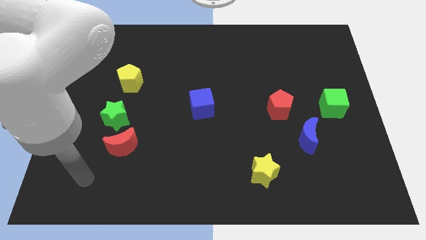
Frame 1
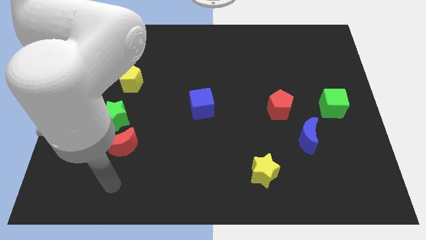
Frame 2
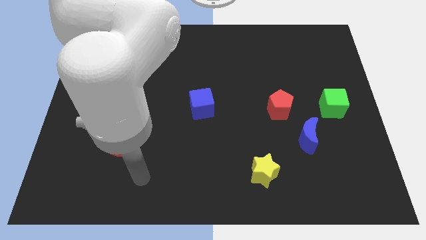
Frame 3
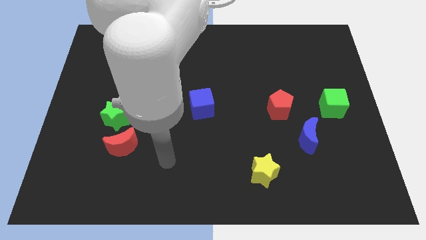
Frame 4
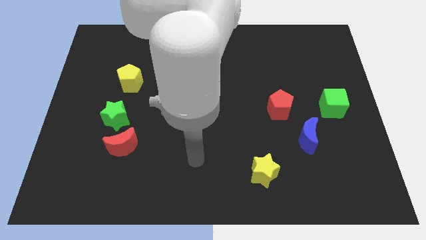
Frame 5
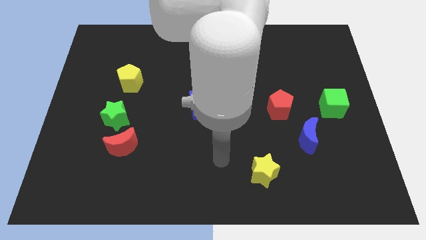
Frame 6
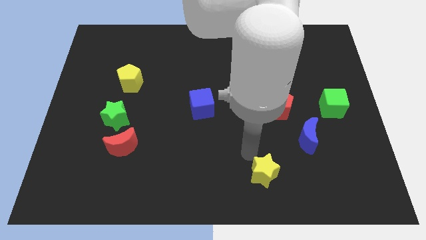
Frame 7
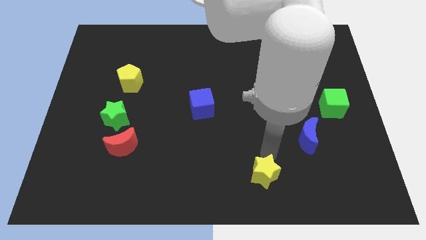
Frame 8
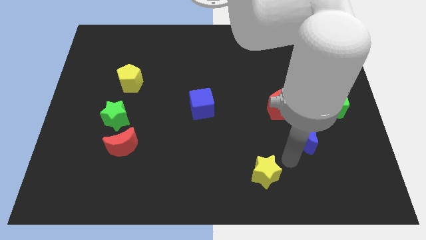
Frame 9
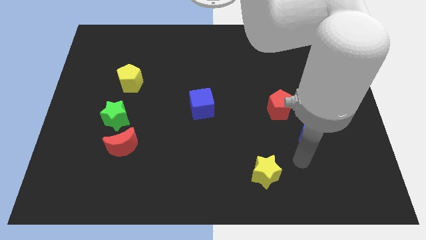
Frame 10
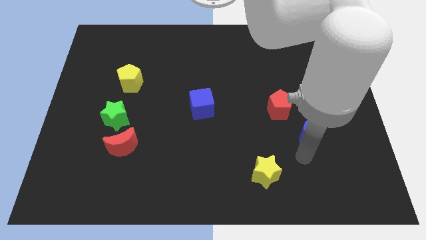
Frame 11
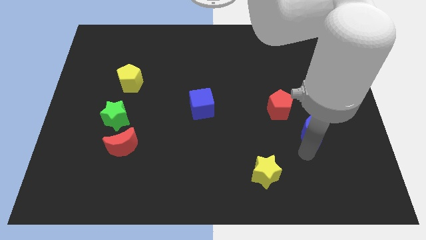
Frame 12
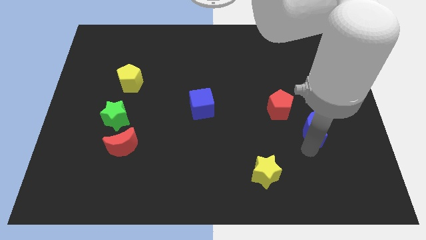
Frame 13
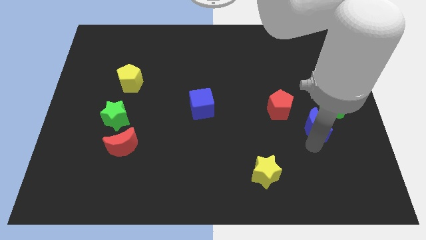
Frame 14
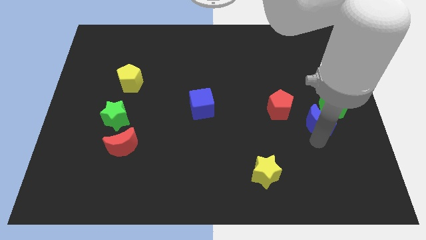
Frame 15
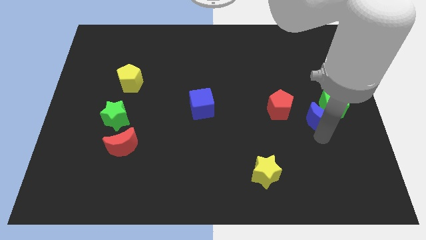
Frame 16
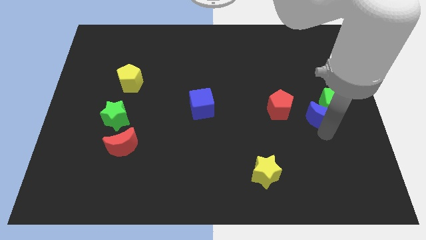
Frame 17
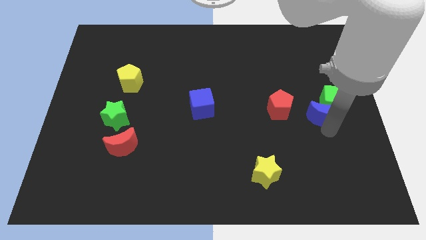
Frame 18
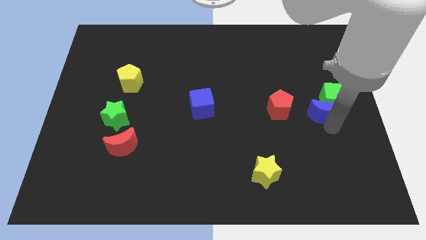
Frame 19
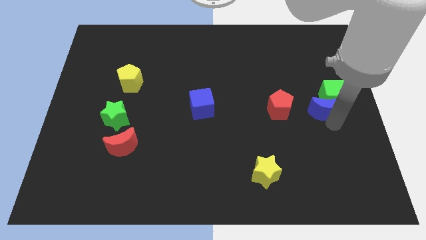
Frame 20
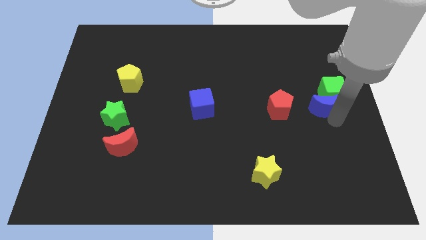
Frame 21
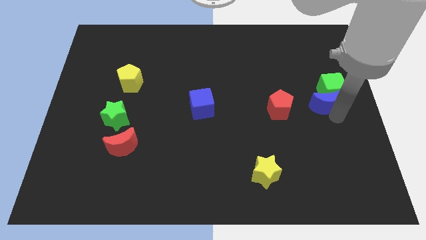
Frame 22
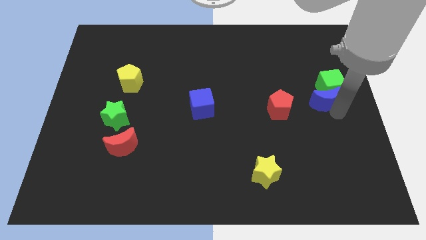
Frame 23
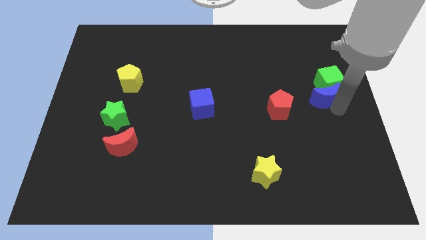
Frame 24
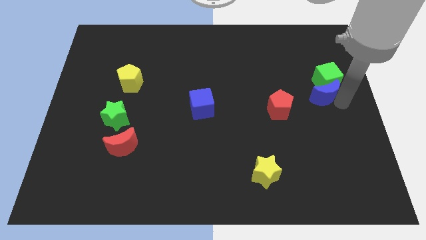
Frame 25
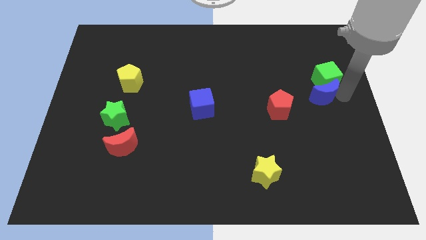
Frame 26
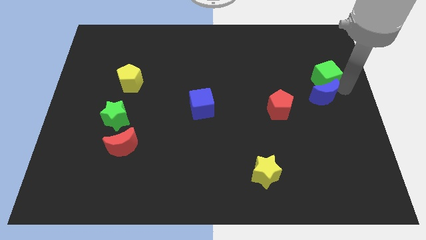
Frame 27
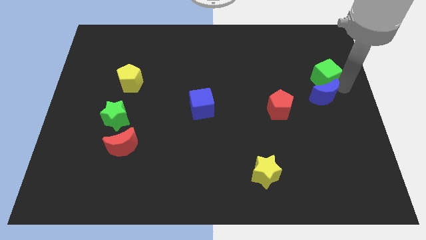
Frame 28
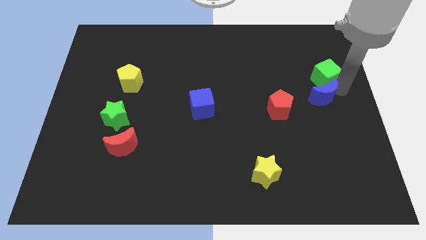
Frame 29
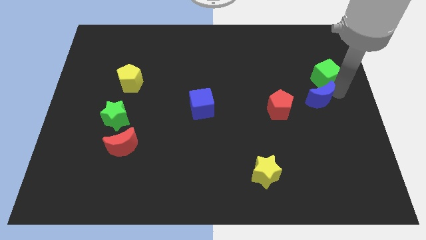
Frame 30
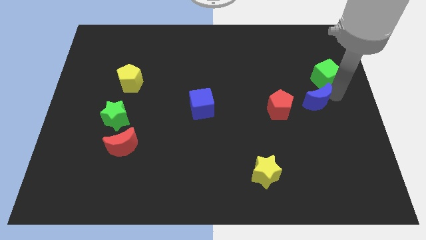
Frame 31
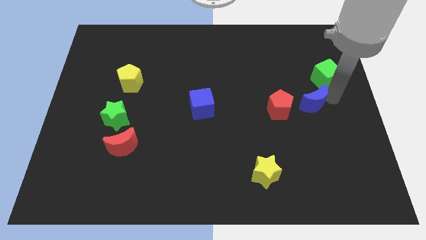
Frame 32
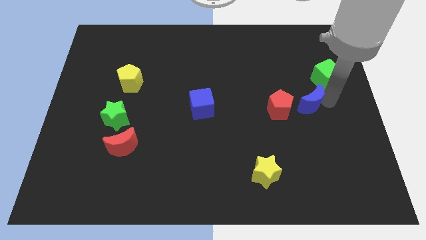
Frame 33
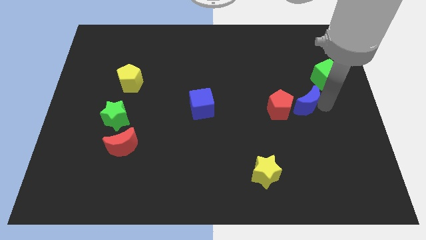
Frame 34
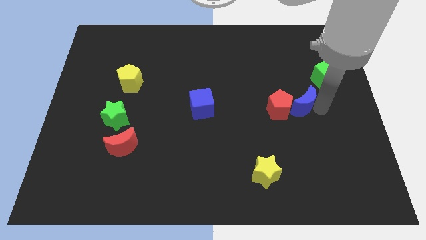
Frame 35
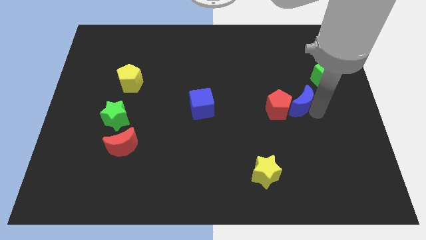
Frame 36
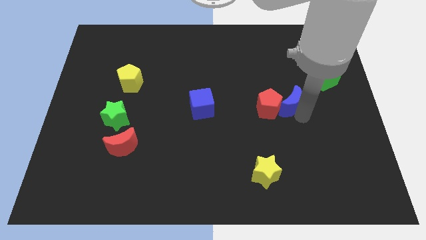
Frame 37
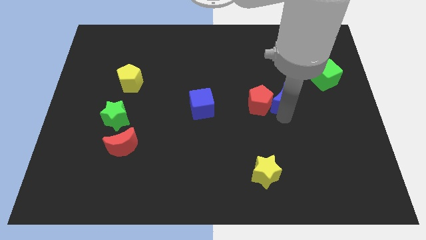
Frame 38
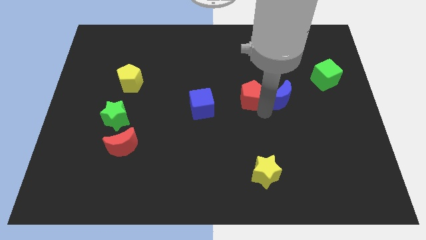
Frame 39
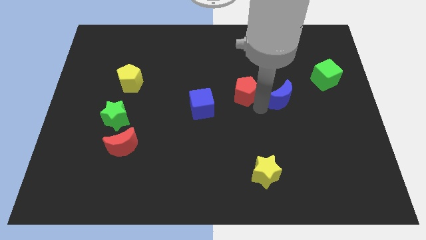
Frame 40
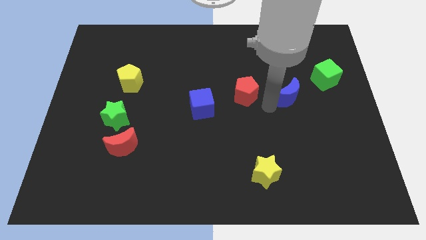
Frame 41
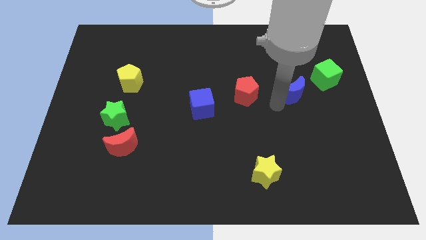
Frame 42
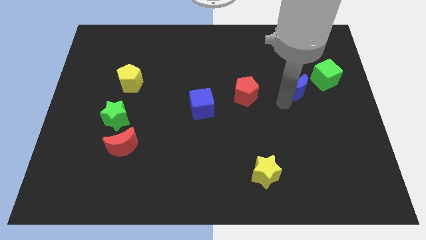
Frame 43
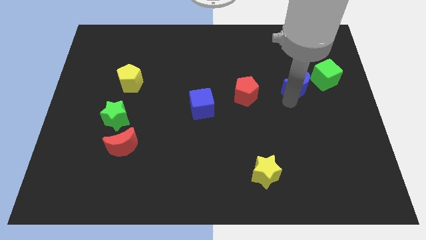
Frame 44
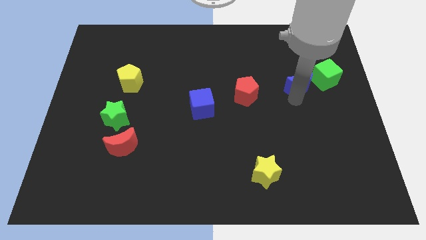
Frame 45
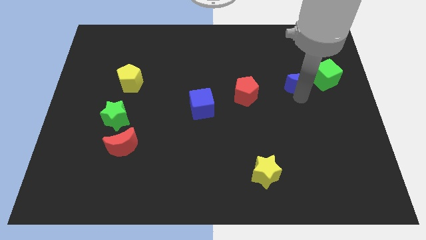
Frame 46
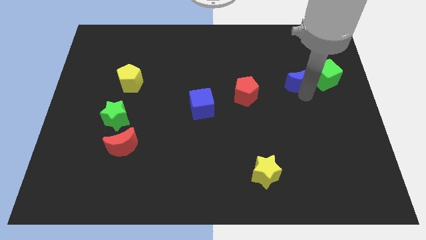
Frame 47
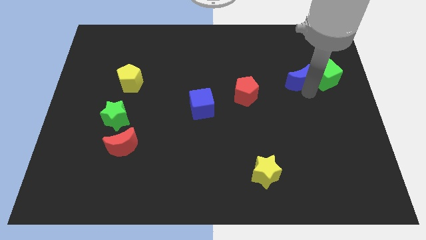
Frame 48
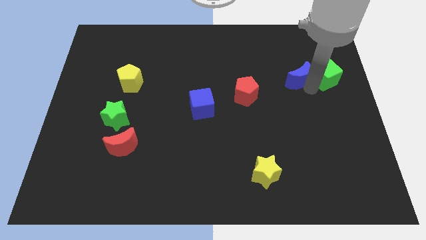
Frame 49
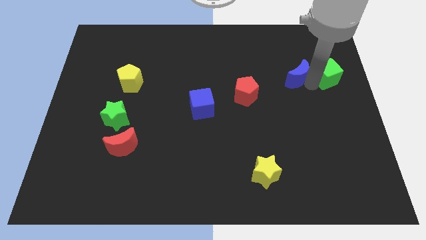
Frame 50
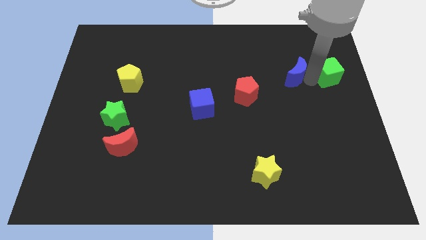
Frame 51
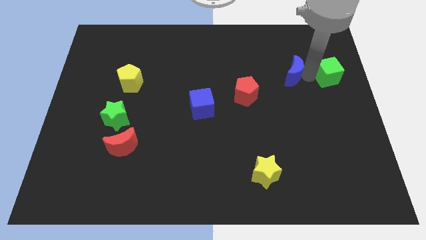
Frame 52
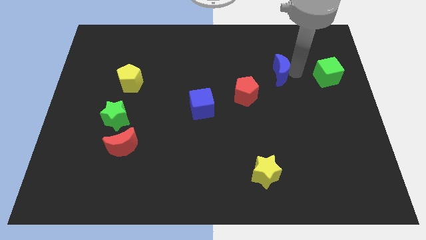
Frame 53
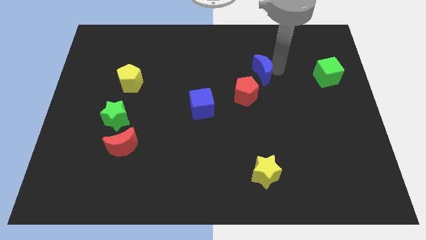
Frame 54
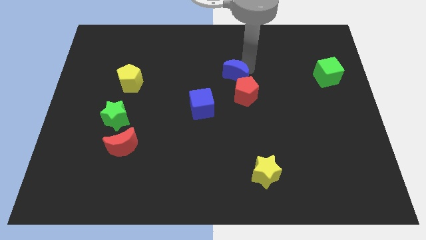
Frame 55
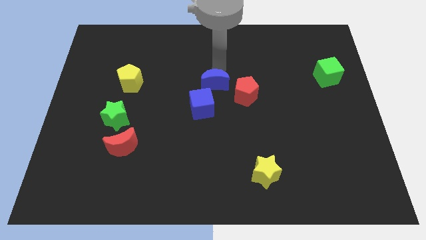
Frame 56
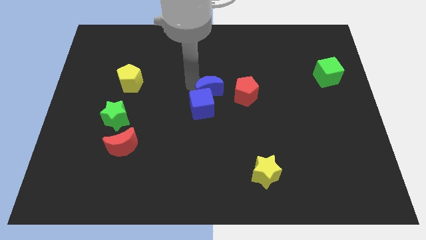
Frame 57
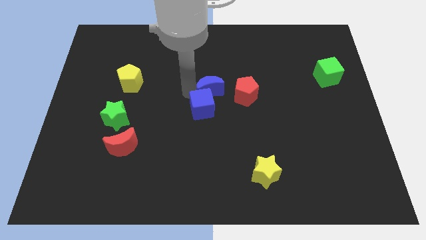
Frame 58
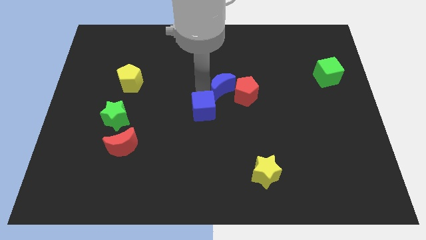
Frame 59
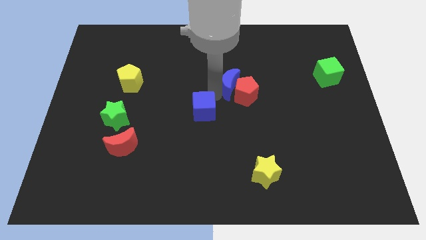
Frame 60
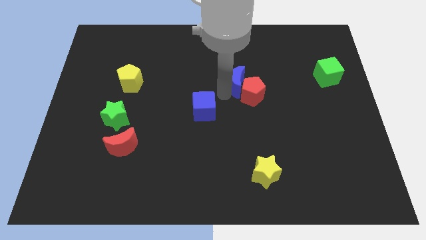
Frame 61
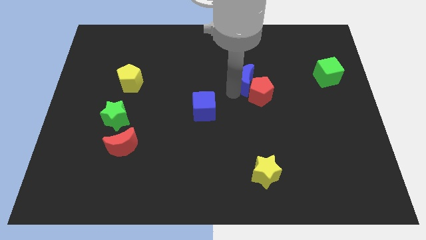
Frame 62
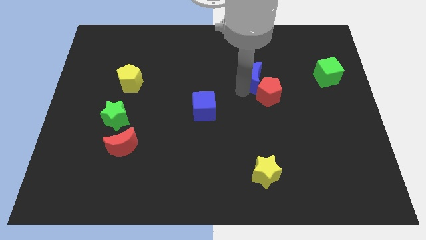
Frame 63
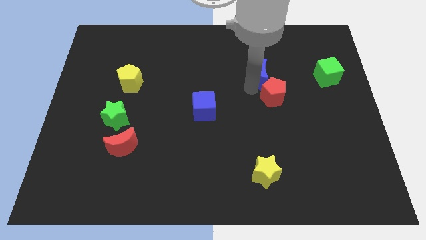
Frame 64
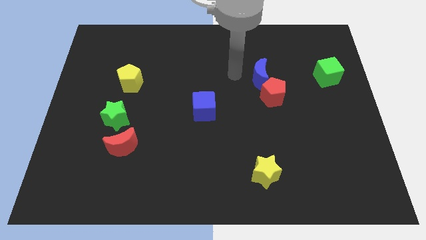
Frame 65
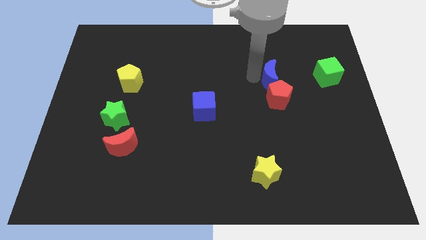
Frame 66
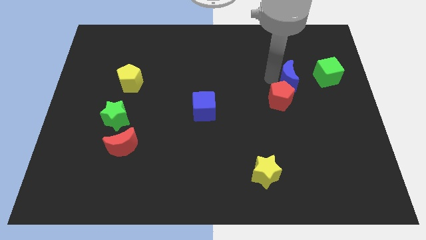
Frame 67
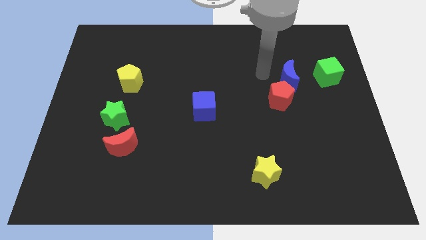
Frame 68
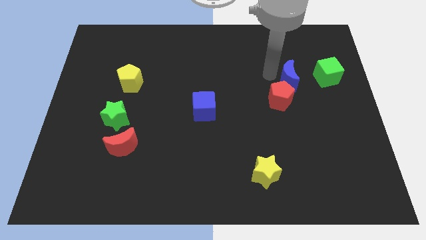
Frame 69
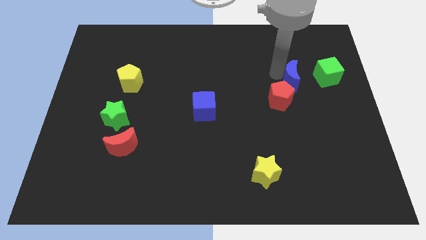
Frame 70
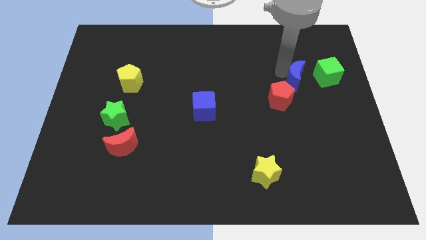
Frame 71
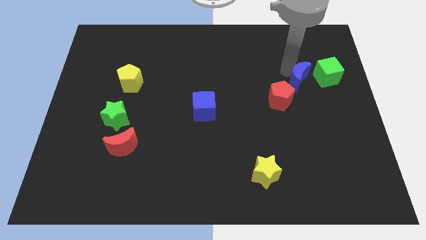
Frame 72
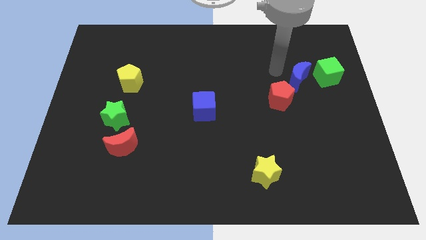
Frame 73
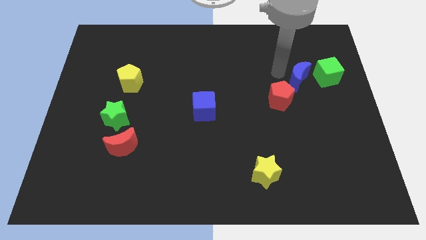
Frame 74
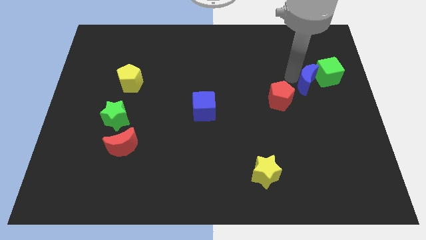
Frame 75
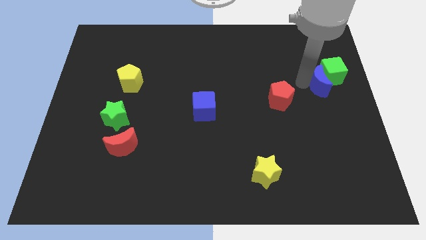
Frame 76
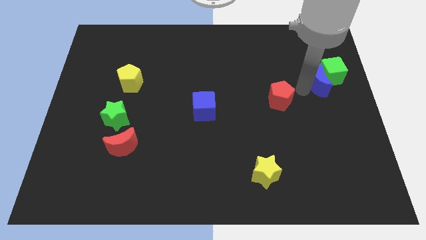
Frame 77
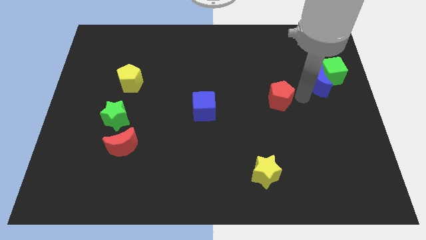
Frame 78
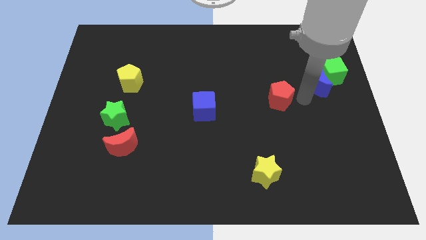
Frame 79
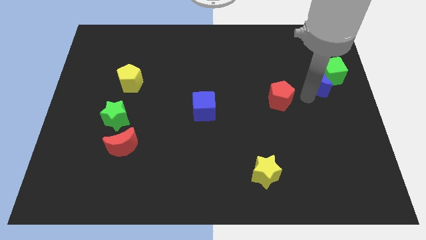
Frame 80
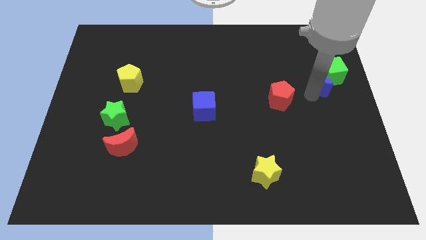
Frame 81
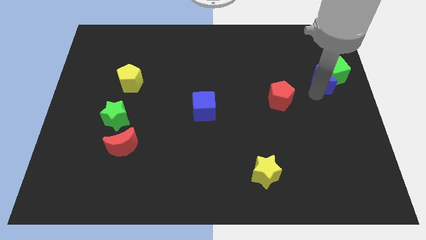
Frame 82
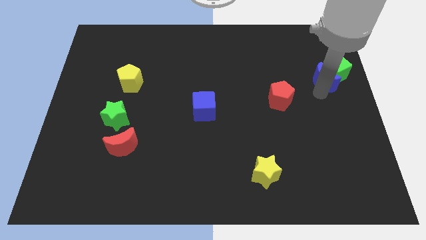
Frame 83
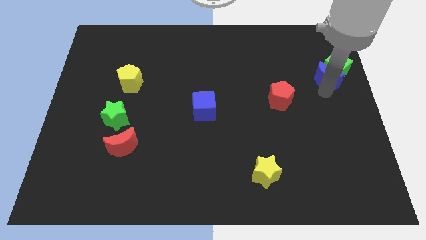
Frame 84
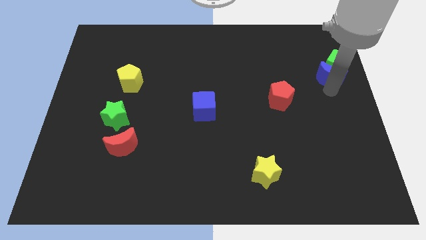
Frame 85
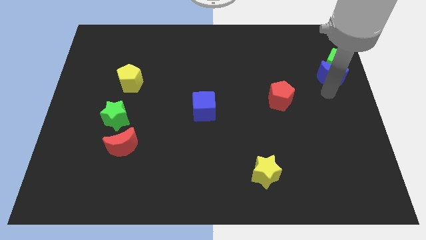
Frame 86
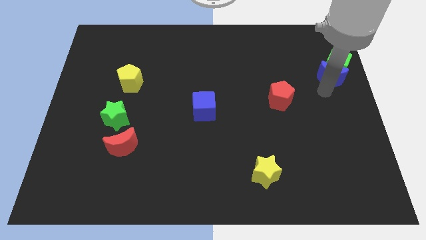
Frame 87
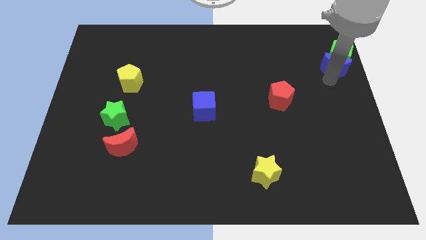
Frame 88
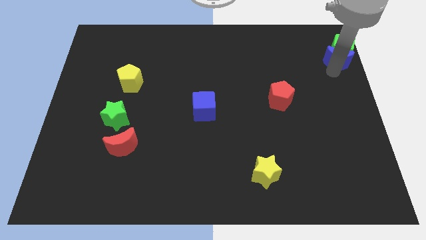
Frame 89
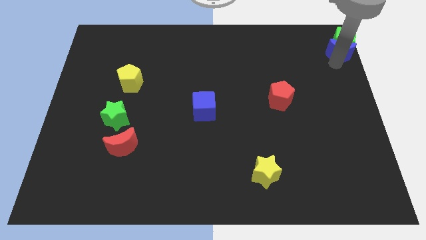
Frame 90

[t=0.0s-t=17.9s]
push the blue moon to the upper right corner
